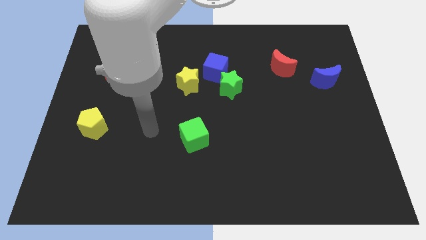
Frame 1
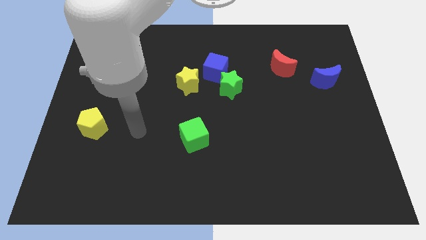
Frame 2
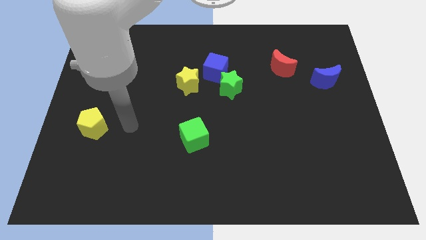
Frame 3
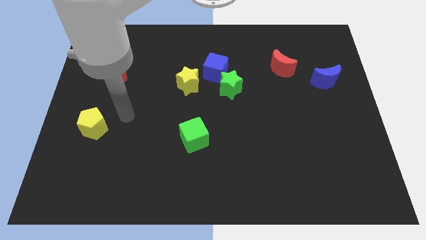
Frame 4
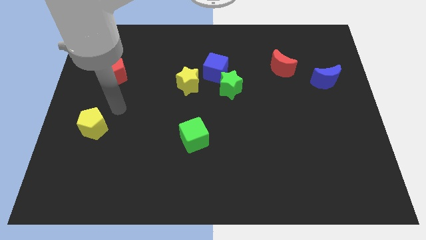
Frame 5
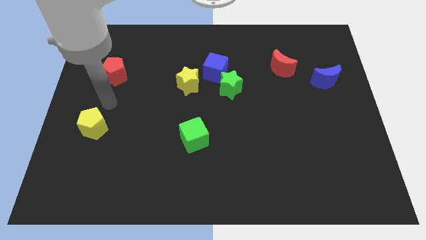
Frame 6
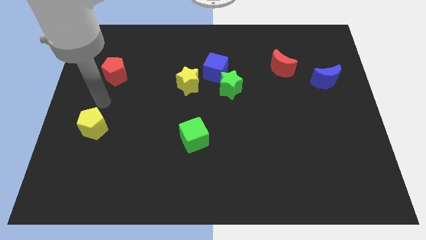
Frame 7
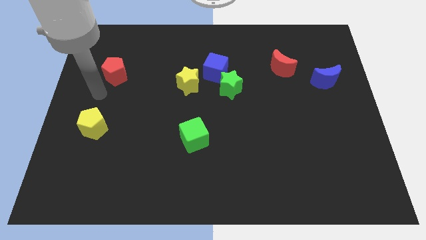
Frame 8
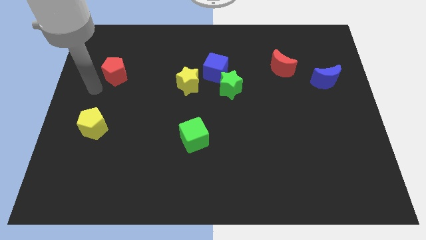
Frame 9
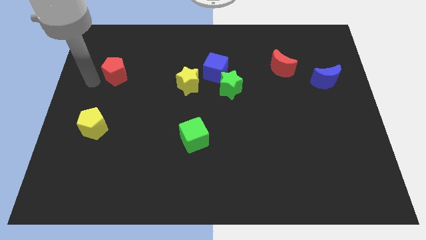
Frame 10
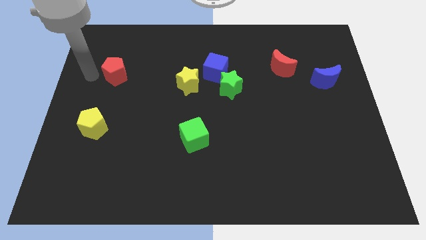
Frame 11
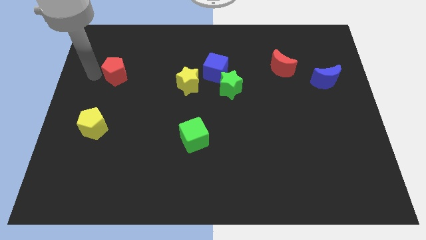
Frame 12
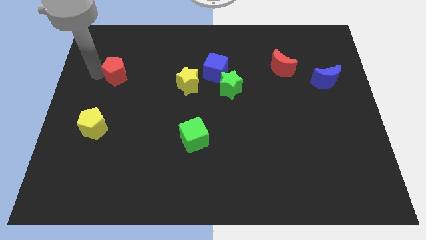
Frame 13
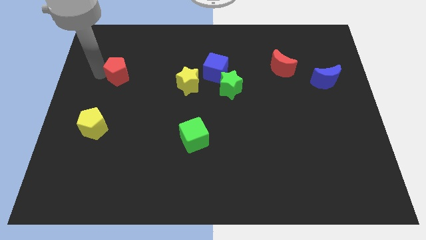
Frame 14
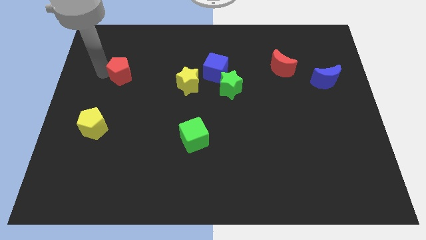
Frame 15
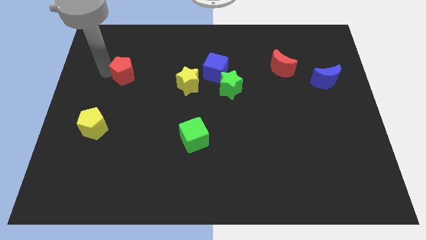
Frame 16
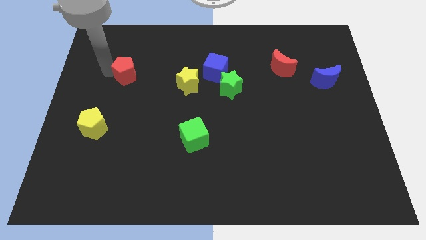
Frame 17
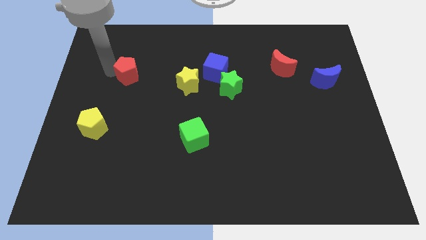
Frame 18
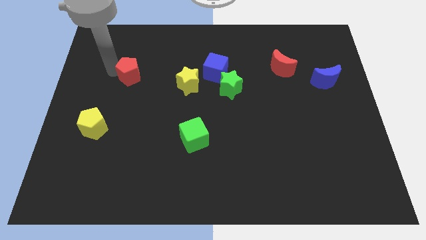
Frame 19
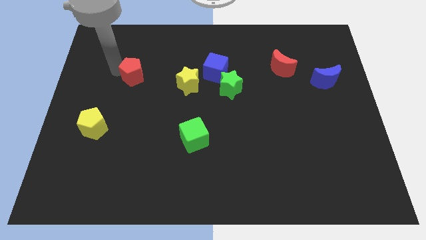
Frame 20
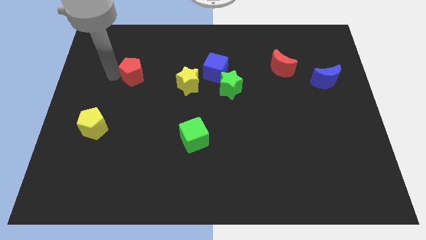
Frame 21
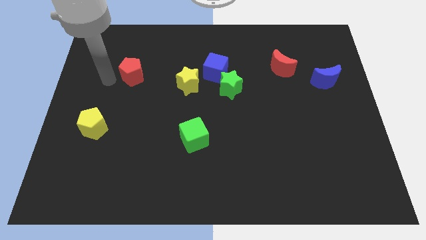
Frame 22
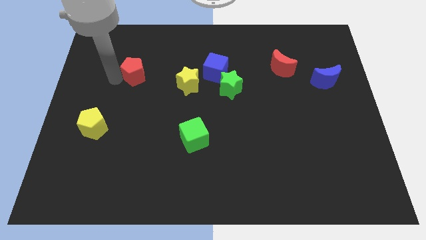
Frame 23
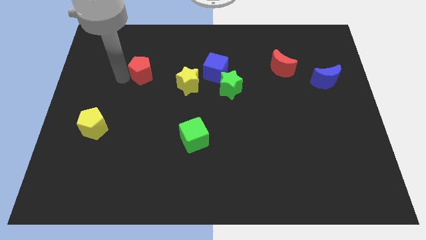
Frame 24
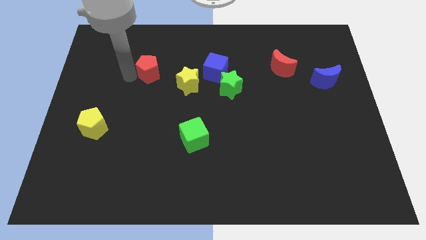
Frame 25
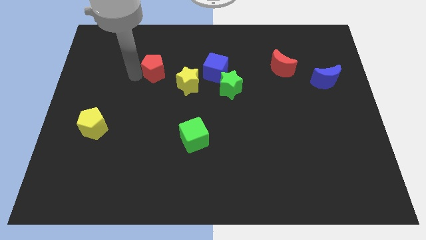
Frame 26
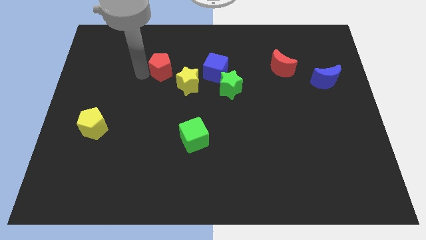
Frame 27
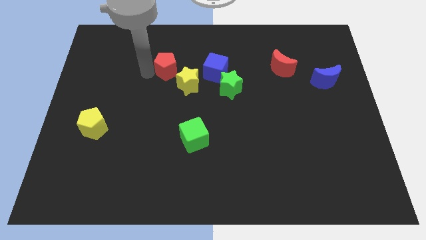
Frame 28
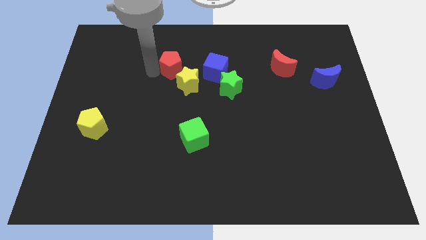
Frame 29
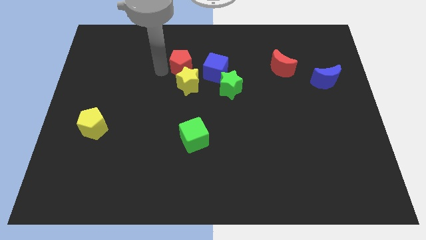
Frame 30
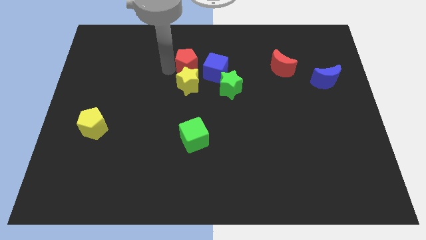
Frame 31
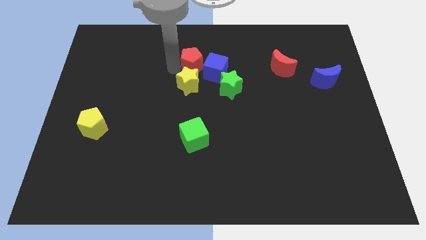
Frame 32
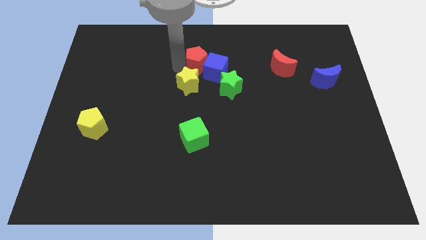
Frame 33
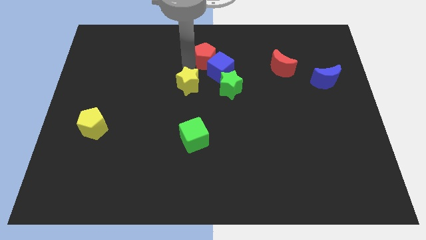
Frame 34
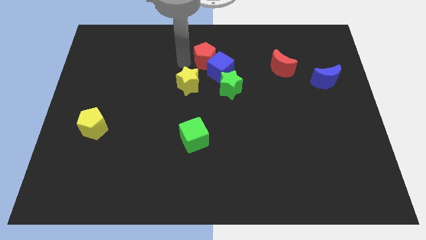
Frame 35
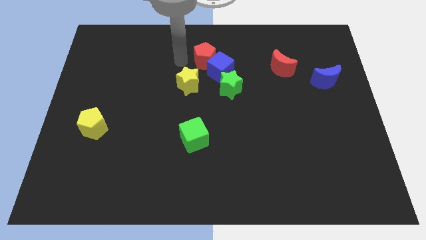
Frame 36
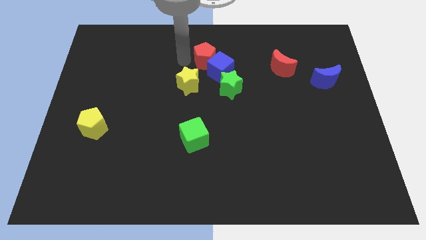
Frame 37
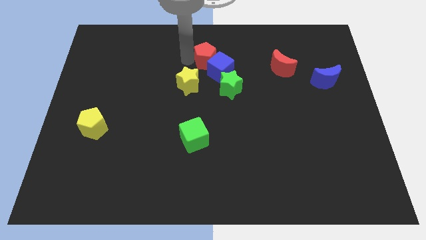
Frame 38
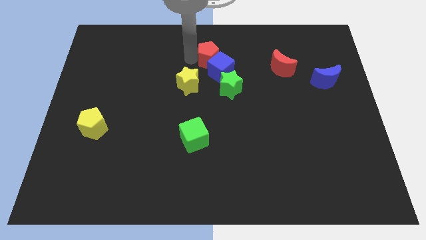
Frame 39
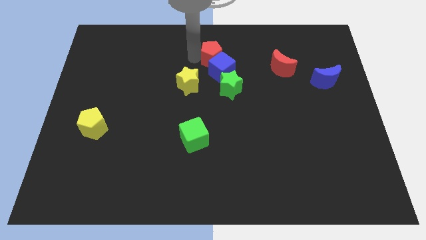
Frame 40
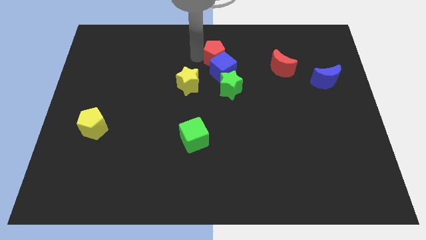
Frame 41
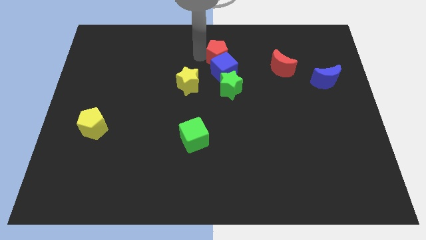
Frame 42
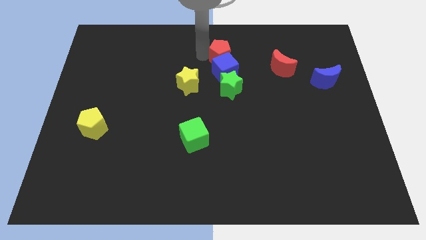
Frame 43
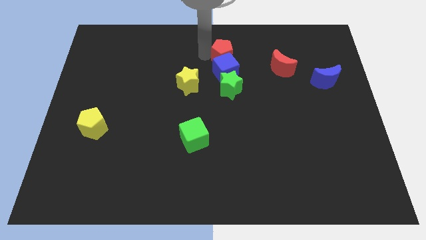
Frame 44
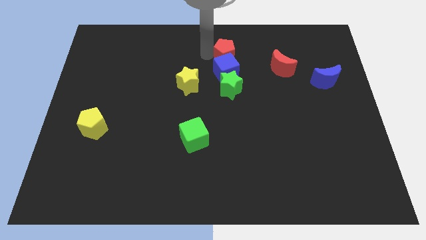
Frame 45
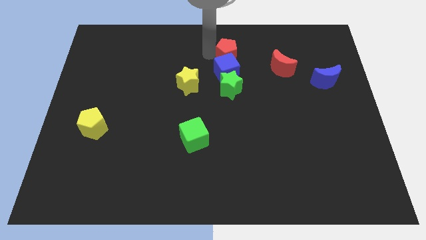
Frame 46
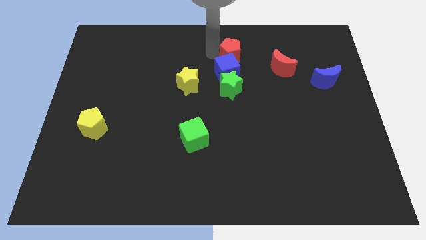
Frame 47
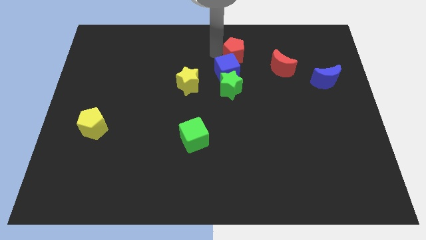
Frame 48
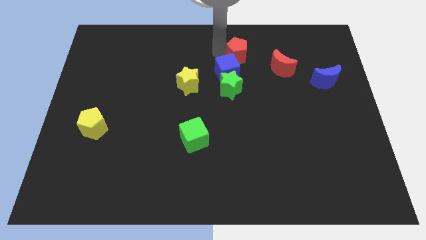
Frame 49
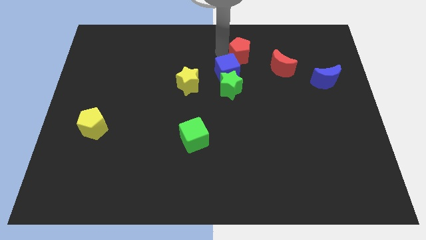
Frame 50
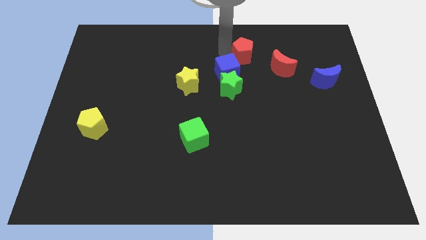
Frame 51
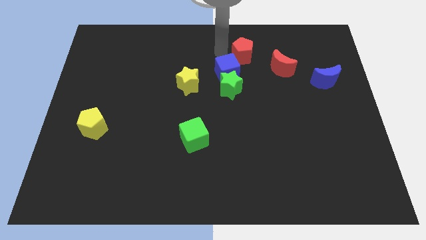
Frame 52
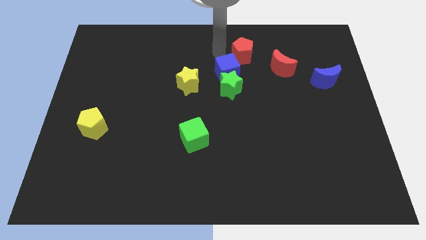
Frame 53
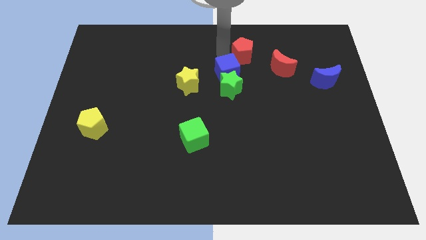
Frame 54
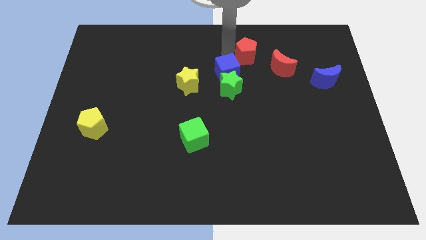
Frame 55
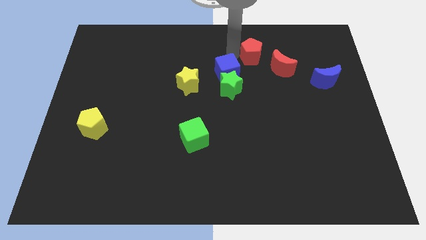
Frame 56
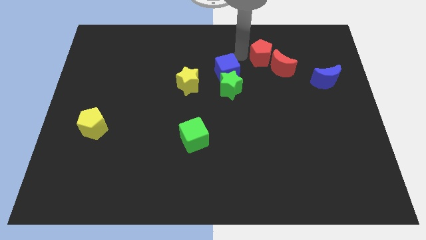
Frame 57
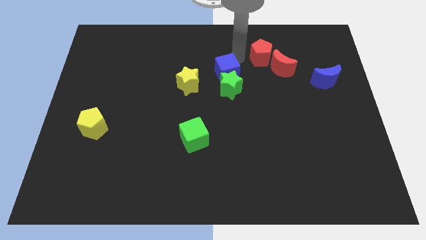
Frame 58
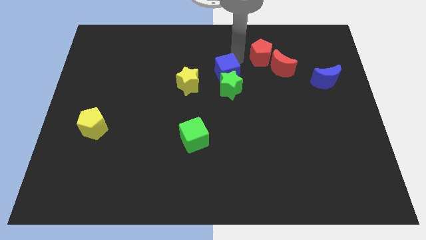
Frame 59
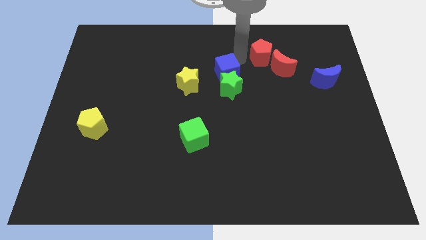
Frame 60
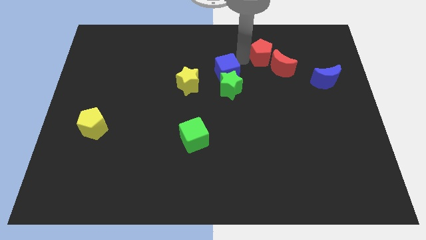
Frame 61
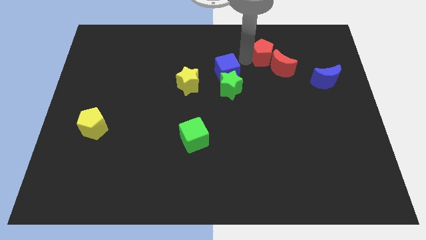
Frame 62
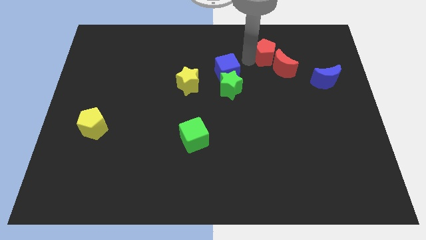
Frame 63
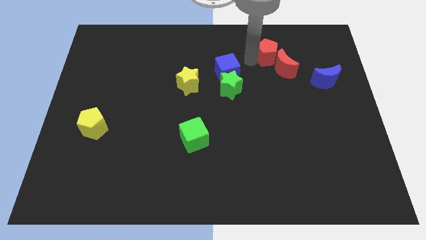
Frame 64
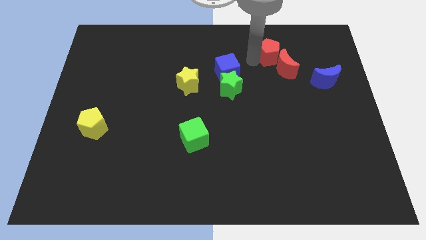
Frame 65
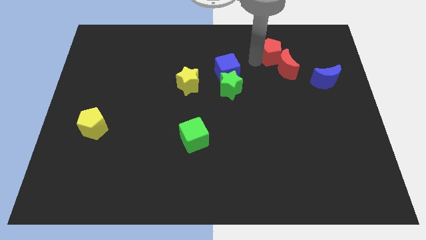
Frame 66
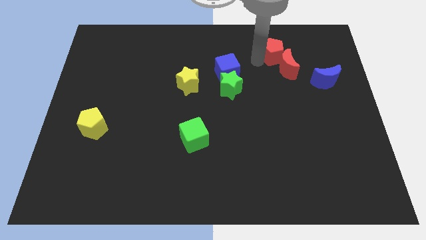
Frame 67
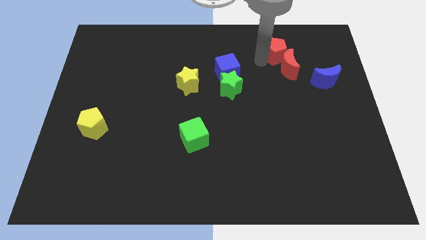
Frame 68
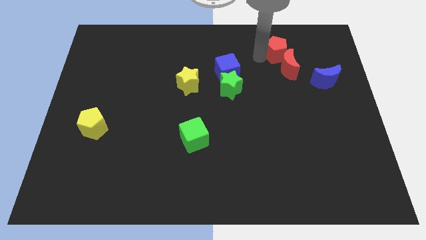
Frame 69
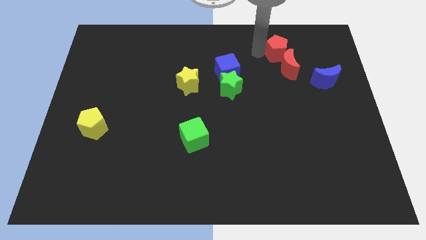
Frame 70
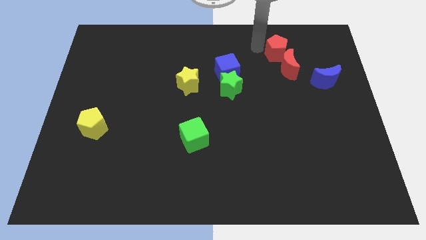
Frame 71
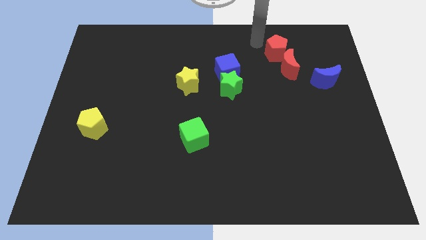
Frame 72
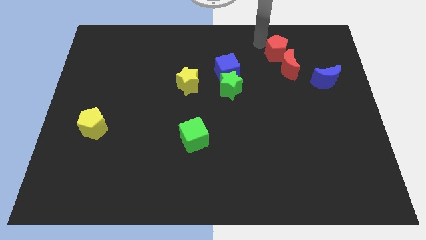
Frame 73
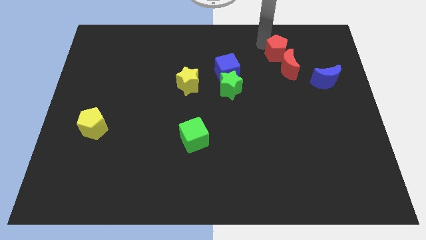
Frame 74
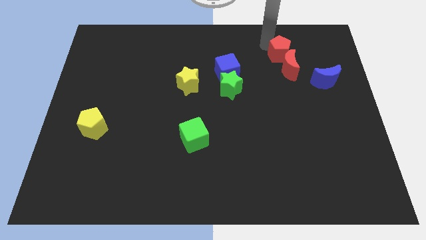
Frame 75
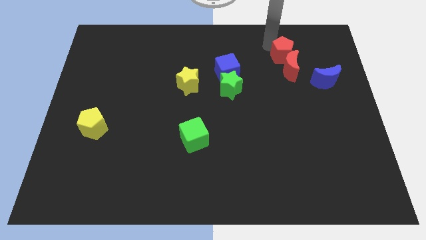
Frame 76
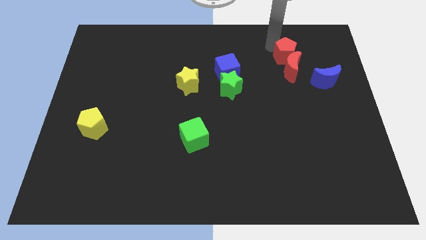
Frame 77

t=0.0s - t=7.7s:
slide the red pentagon to the top left side of the blue moon
